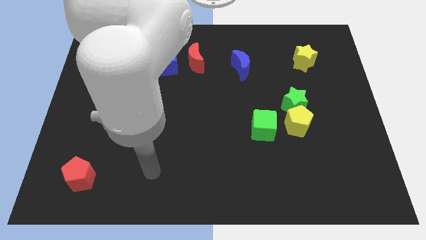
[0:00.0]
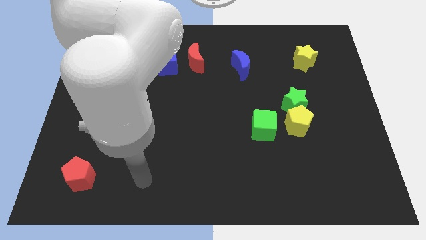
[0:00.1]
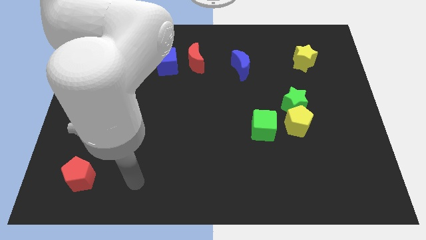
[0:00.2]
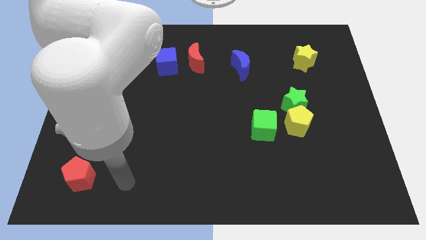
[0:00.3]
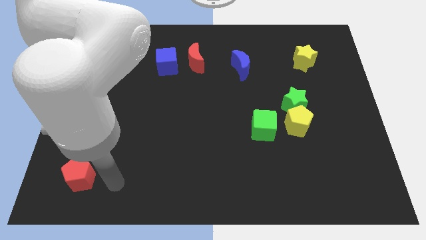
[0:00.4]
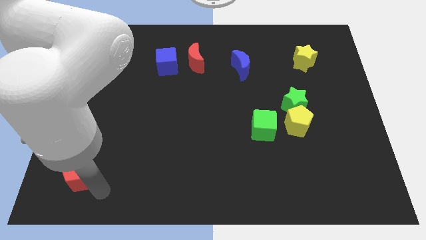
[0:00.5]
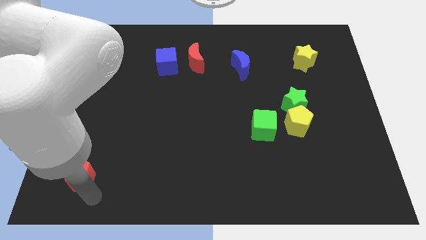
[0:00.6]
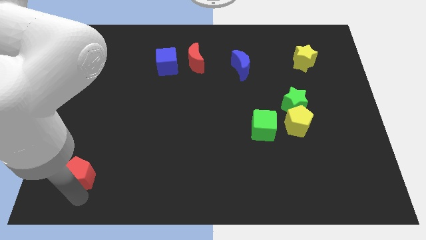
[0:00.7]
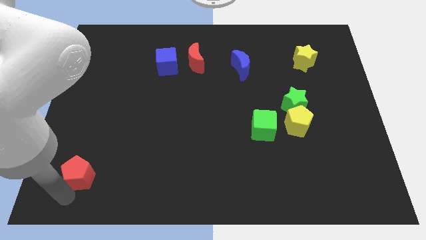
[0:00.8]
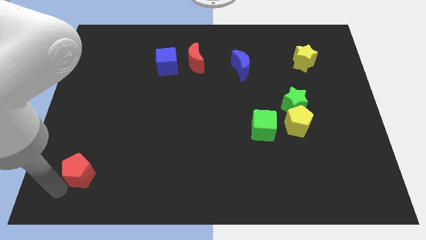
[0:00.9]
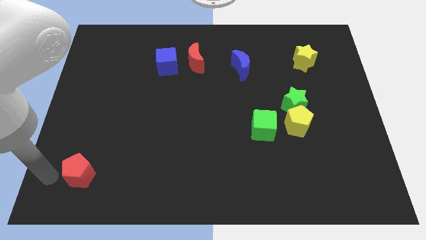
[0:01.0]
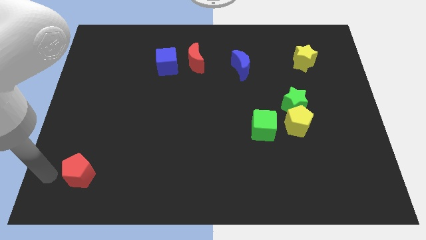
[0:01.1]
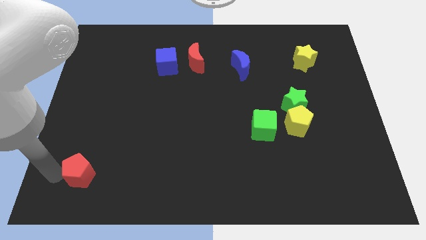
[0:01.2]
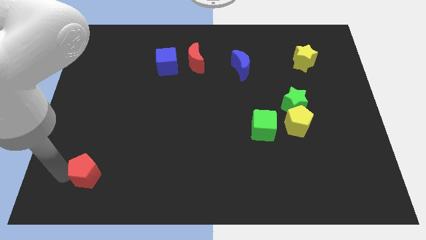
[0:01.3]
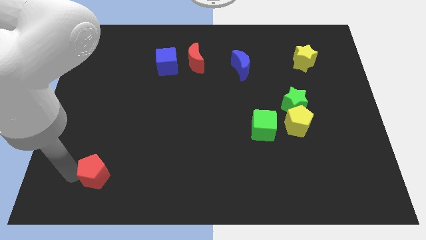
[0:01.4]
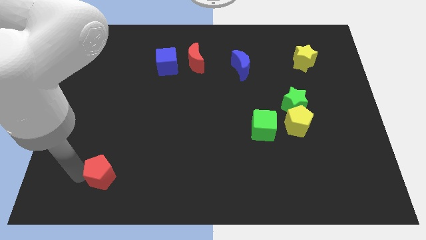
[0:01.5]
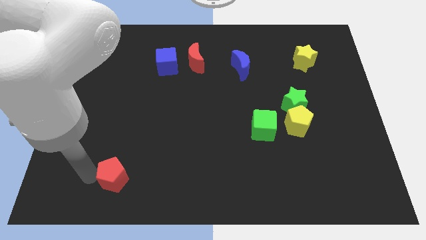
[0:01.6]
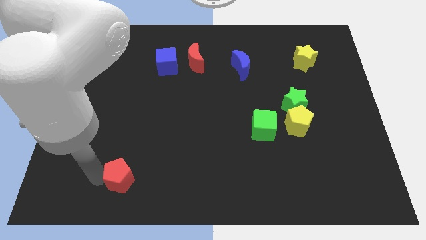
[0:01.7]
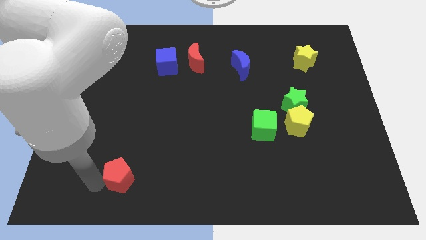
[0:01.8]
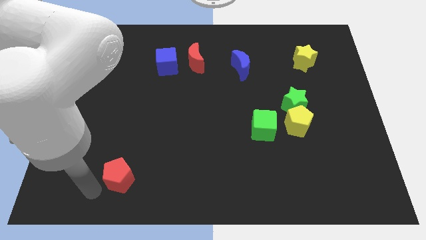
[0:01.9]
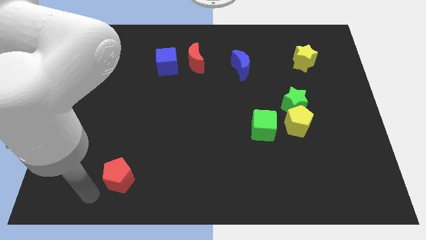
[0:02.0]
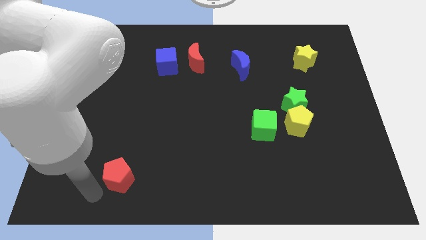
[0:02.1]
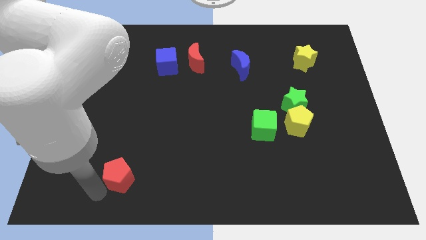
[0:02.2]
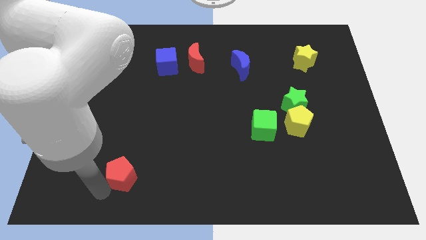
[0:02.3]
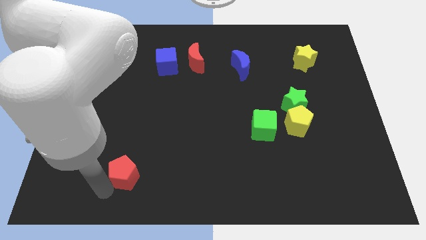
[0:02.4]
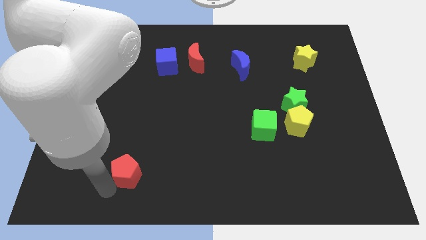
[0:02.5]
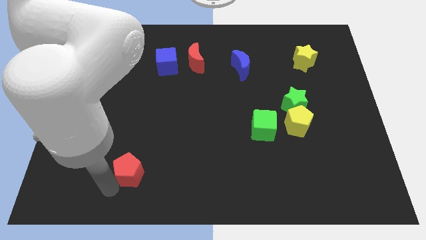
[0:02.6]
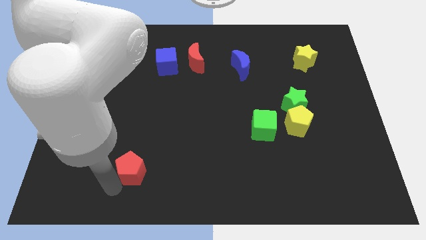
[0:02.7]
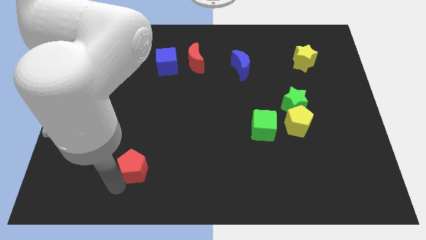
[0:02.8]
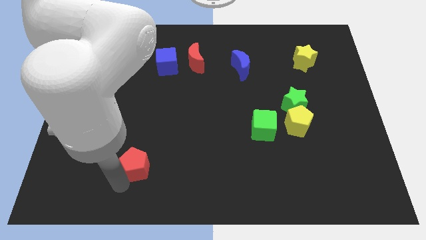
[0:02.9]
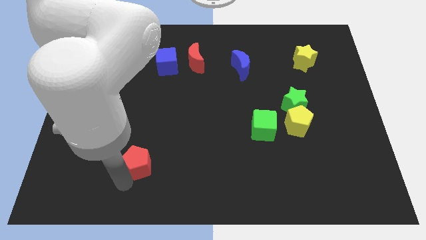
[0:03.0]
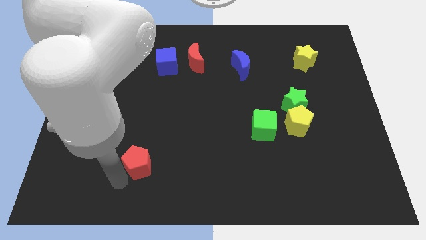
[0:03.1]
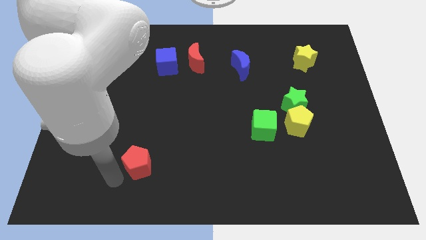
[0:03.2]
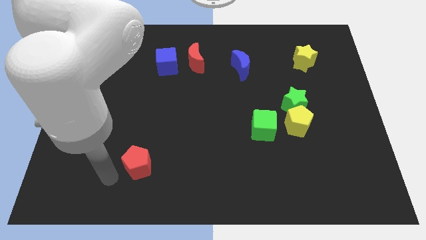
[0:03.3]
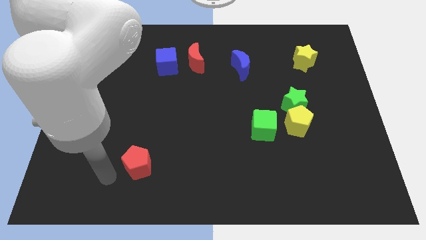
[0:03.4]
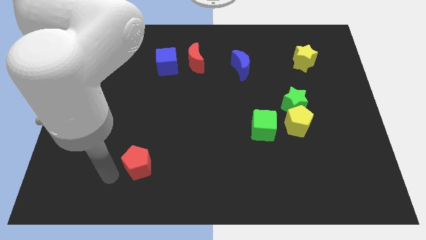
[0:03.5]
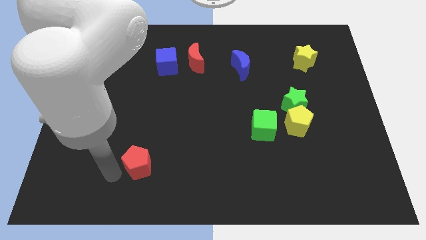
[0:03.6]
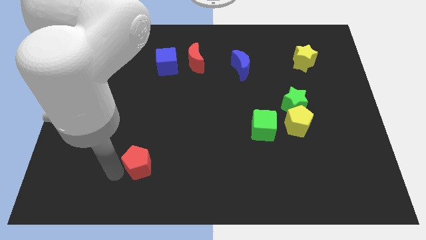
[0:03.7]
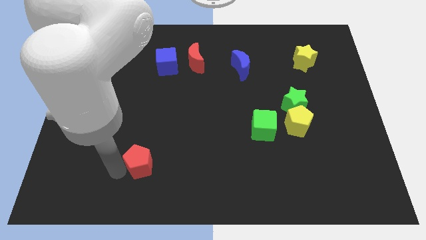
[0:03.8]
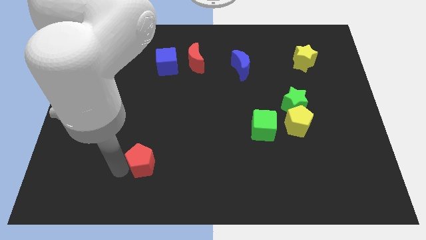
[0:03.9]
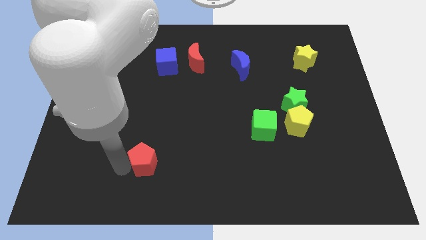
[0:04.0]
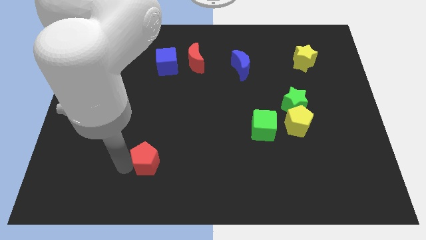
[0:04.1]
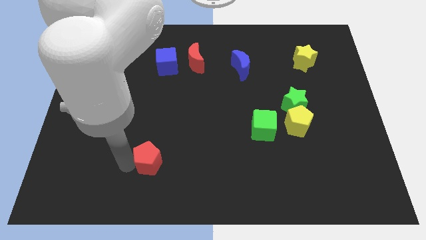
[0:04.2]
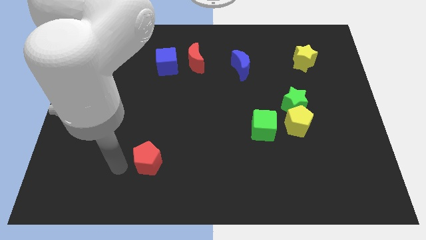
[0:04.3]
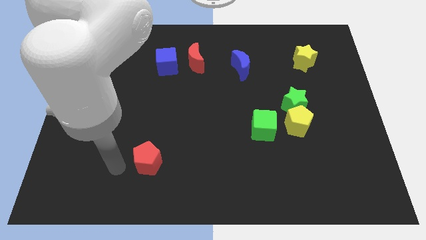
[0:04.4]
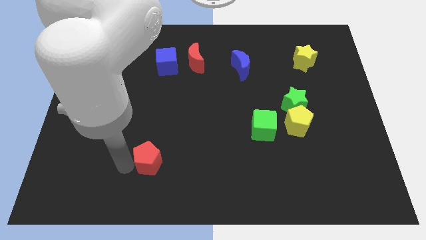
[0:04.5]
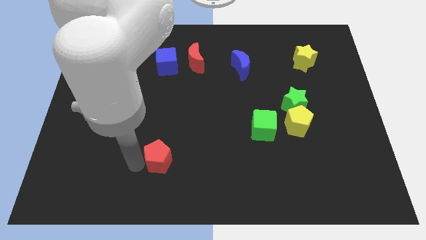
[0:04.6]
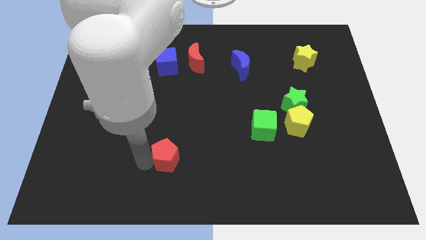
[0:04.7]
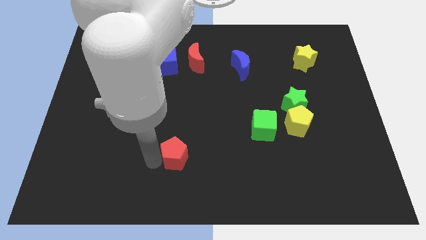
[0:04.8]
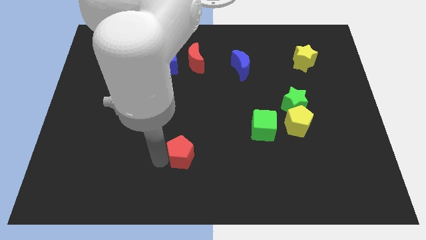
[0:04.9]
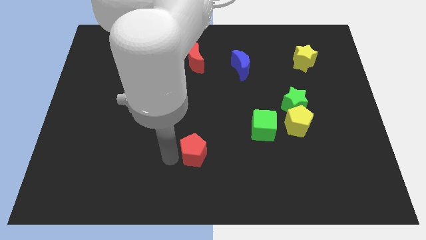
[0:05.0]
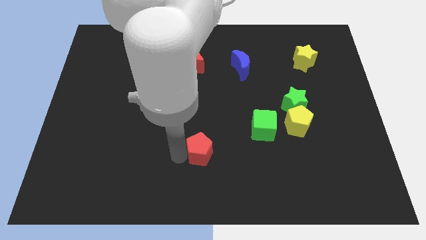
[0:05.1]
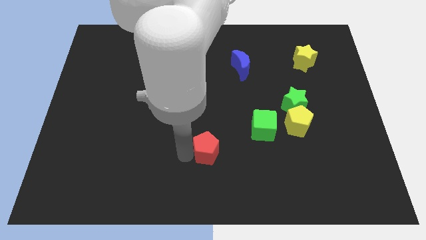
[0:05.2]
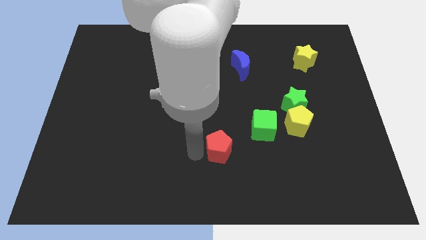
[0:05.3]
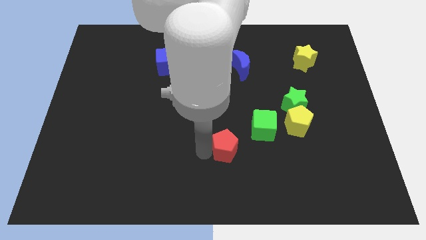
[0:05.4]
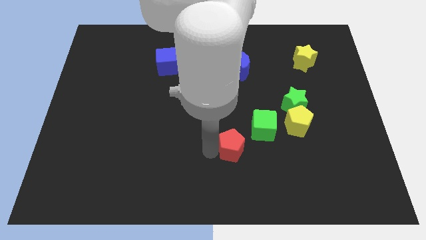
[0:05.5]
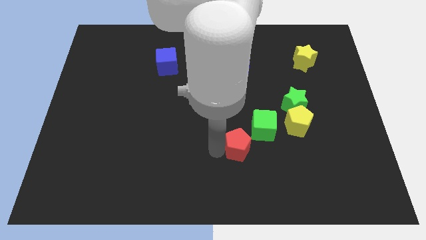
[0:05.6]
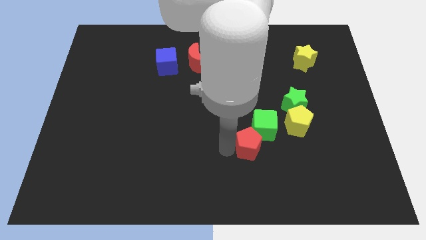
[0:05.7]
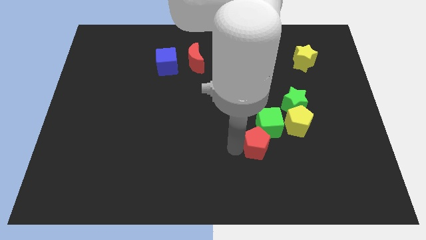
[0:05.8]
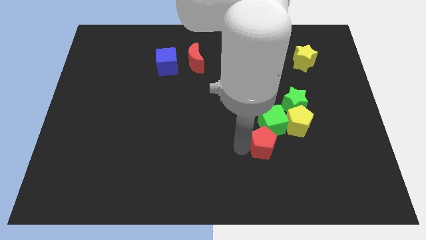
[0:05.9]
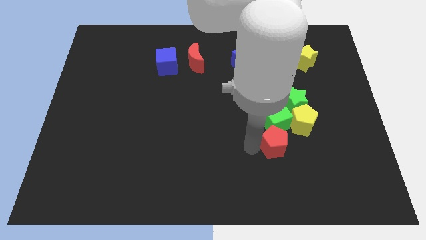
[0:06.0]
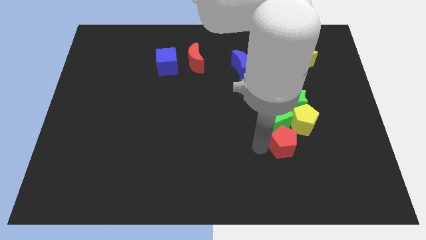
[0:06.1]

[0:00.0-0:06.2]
put the red pentagon below the green star

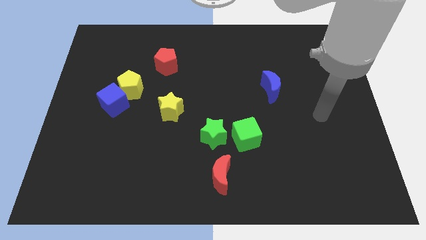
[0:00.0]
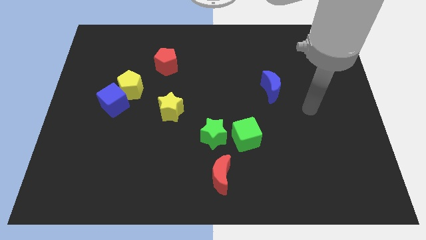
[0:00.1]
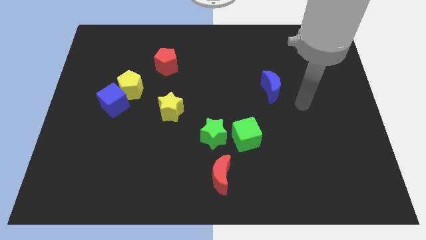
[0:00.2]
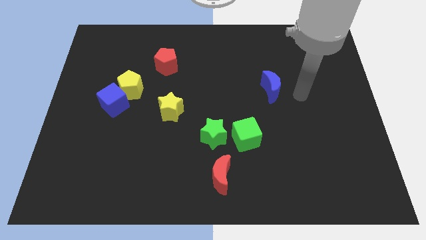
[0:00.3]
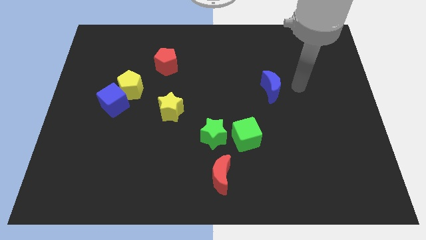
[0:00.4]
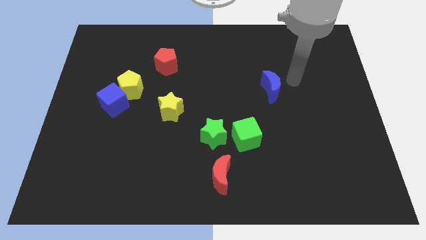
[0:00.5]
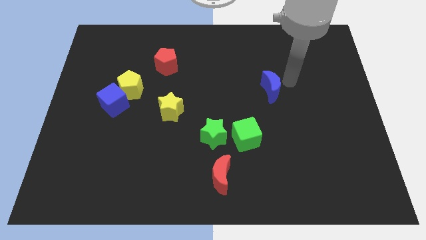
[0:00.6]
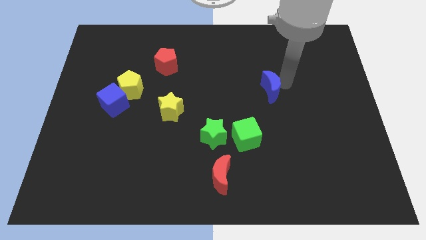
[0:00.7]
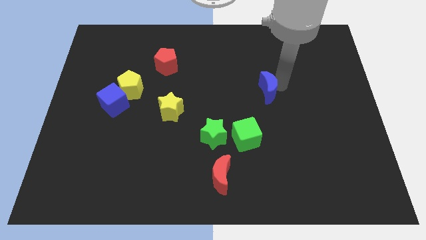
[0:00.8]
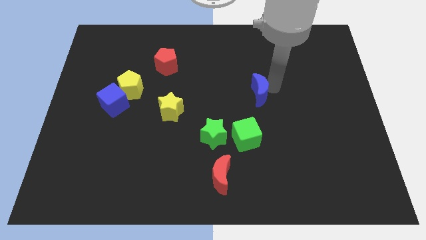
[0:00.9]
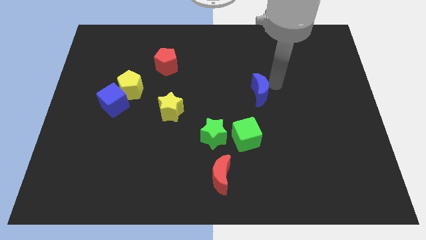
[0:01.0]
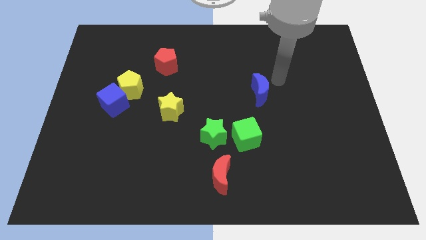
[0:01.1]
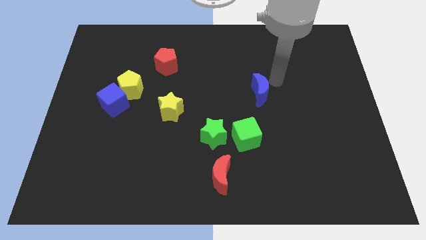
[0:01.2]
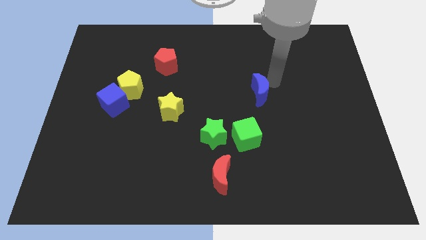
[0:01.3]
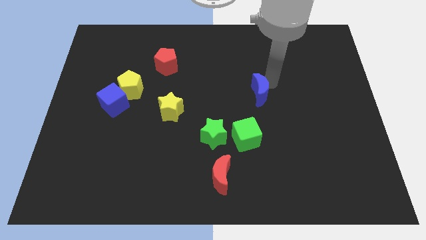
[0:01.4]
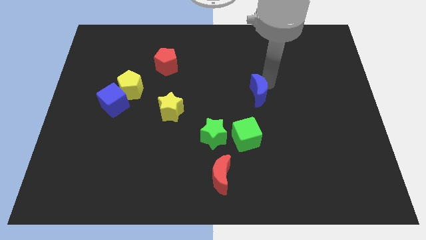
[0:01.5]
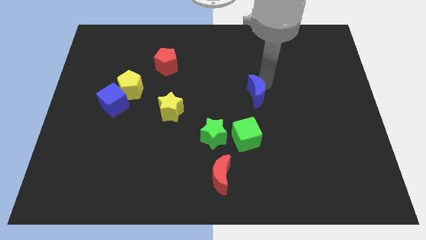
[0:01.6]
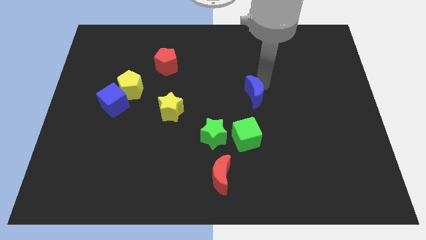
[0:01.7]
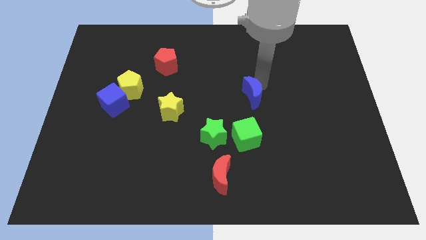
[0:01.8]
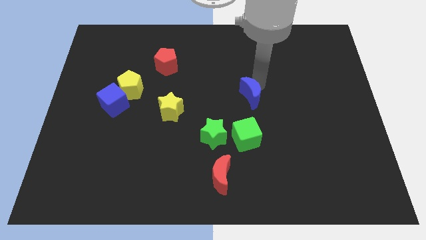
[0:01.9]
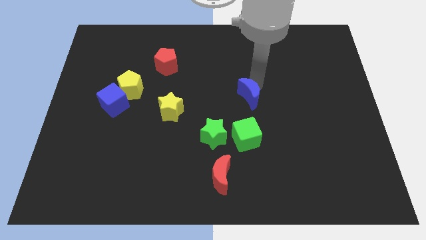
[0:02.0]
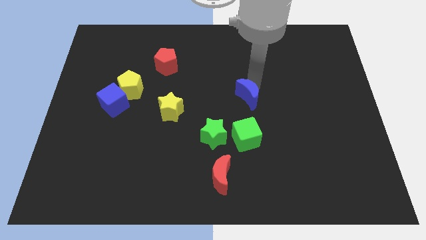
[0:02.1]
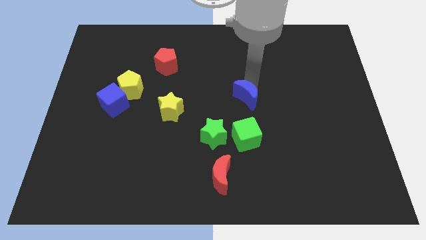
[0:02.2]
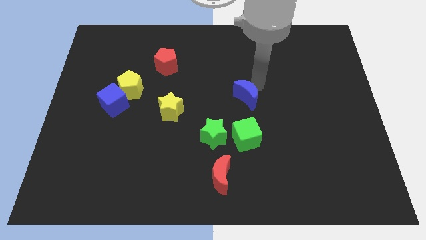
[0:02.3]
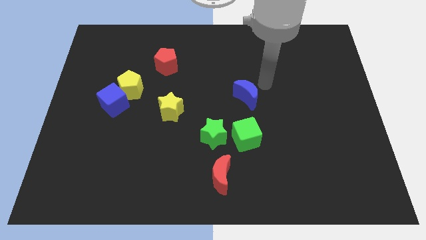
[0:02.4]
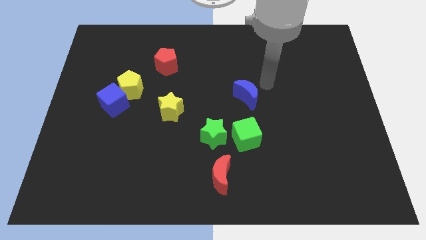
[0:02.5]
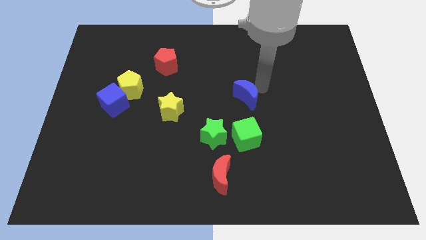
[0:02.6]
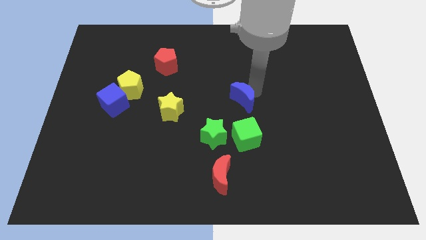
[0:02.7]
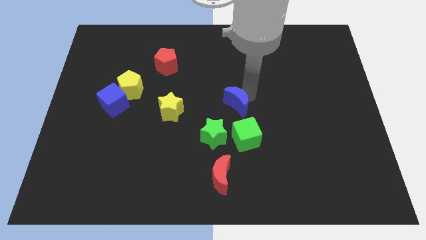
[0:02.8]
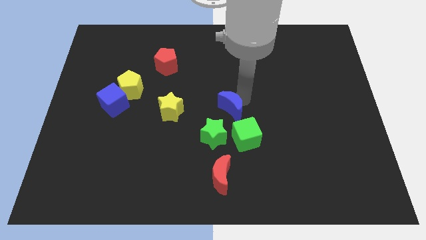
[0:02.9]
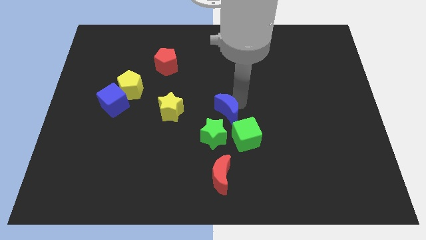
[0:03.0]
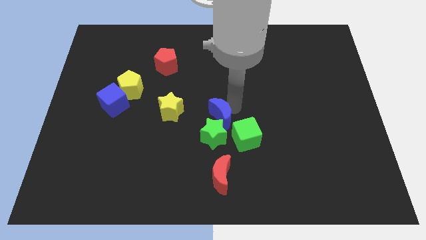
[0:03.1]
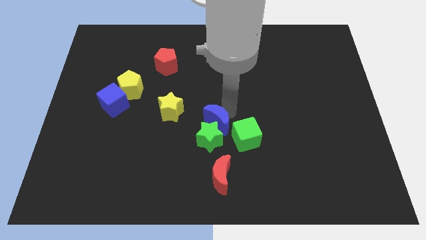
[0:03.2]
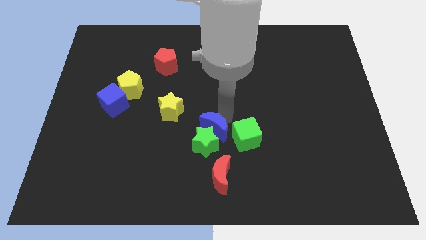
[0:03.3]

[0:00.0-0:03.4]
slide the blue moon diagonally down and to the right of the yellow star
